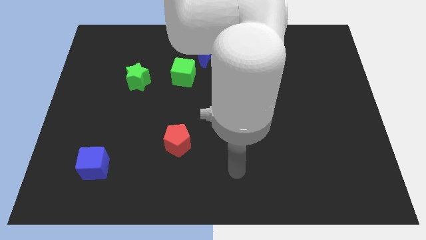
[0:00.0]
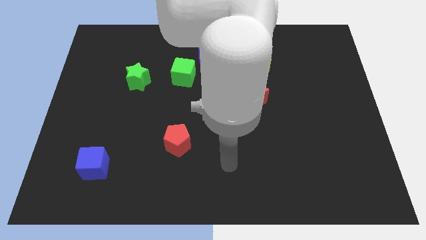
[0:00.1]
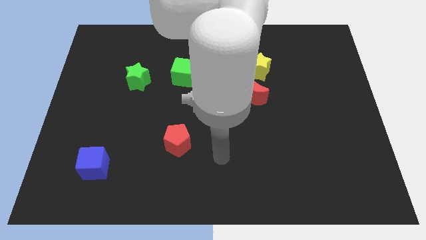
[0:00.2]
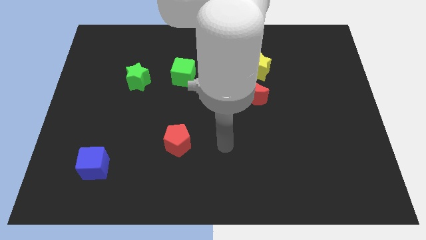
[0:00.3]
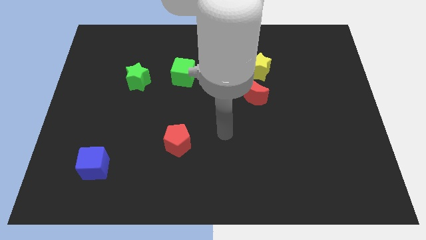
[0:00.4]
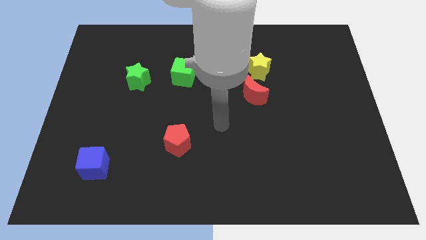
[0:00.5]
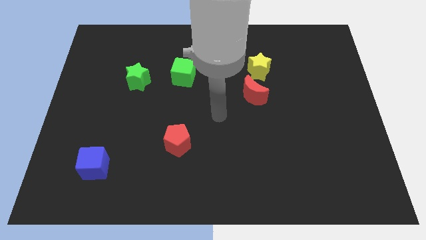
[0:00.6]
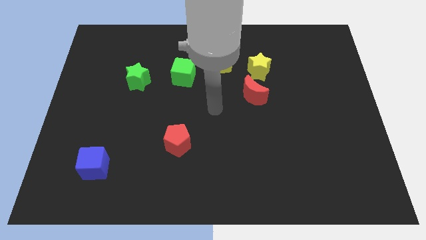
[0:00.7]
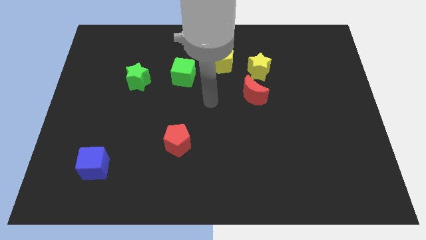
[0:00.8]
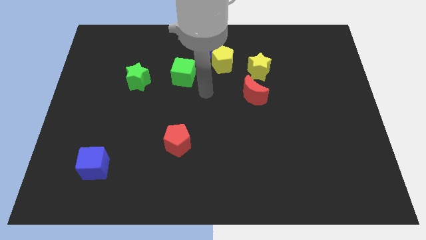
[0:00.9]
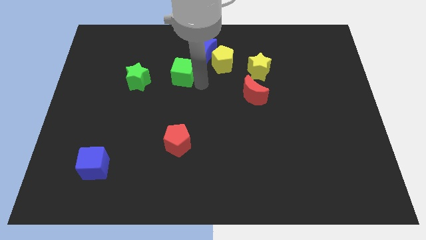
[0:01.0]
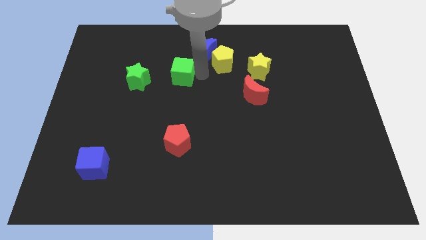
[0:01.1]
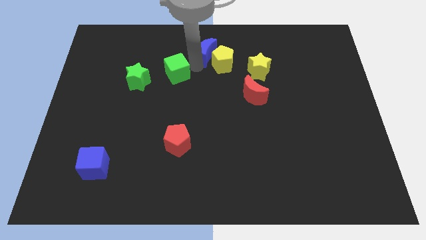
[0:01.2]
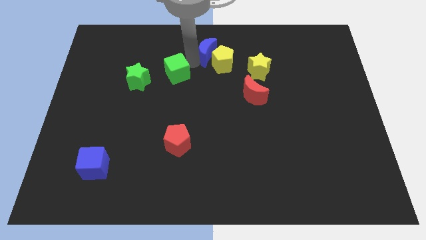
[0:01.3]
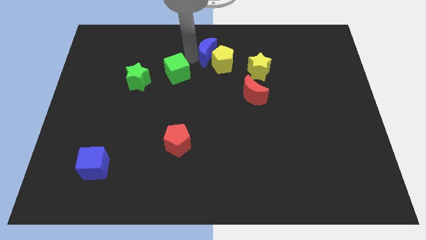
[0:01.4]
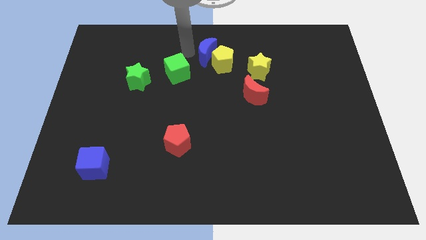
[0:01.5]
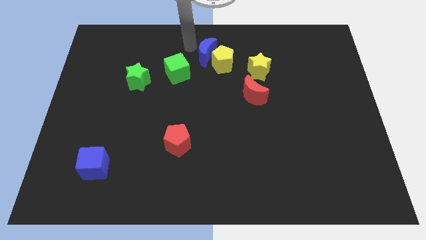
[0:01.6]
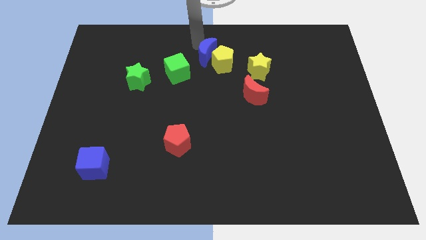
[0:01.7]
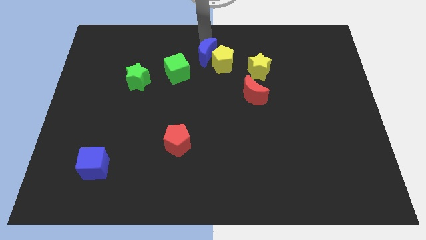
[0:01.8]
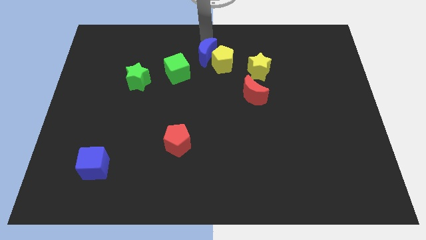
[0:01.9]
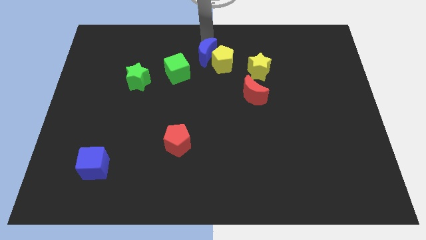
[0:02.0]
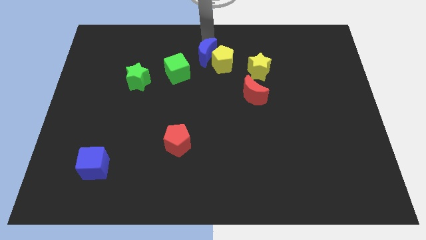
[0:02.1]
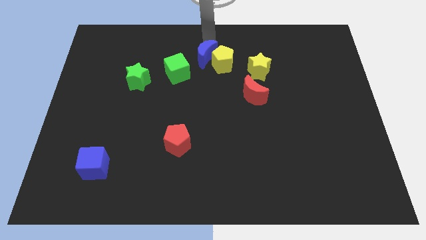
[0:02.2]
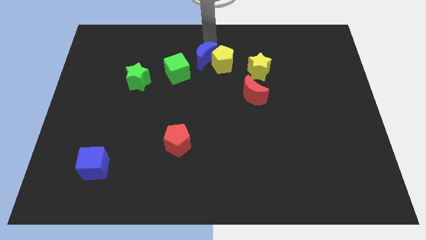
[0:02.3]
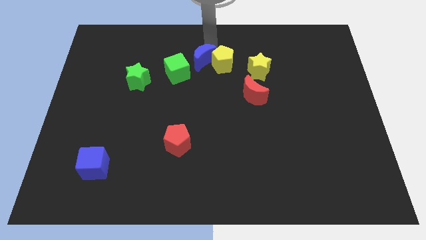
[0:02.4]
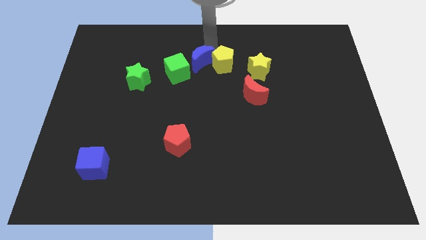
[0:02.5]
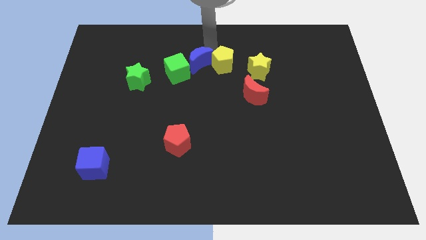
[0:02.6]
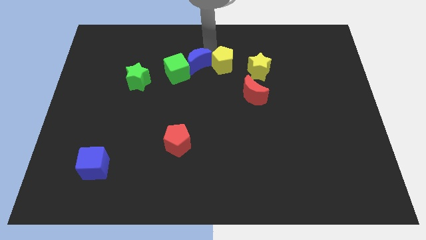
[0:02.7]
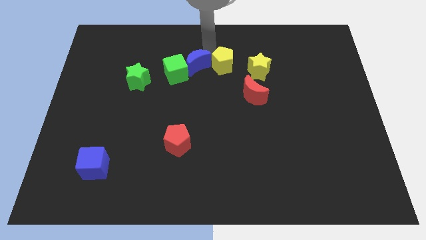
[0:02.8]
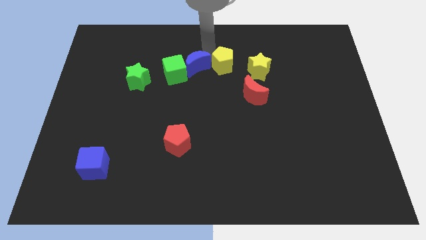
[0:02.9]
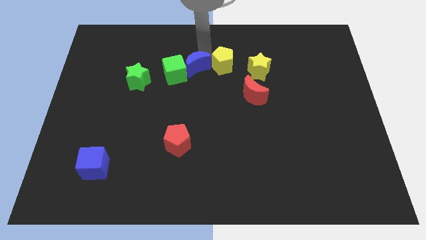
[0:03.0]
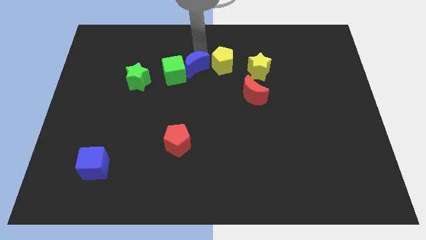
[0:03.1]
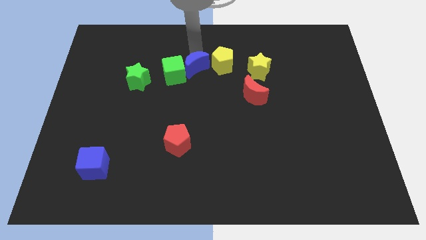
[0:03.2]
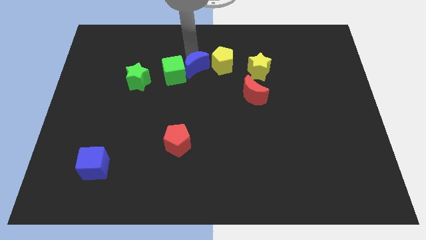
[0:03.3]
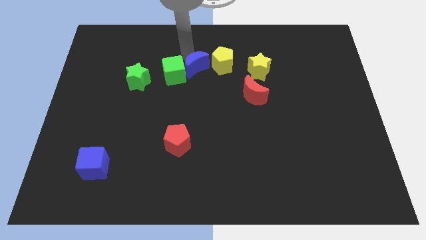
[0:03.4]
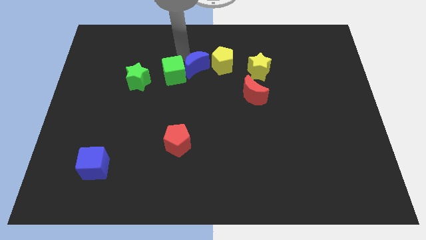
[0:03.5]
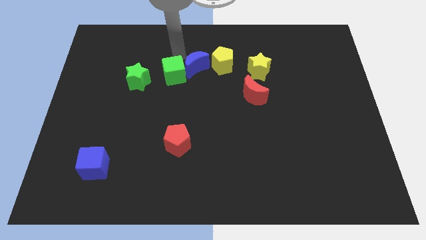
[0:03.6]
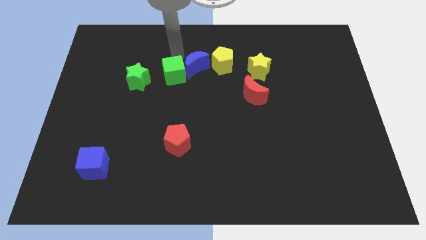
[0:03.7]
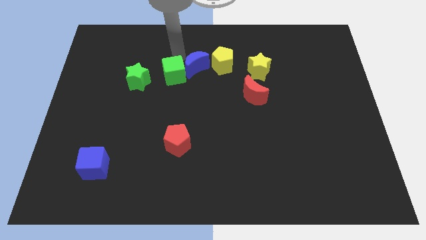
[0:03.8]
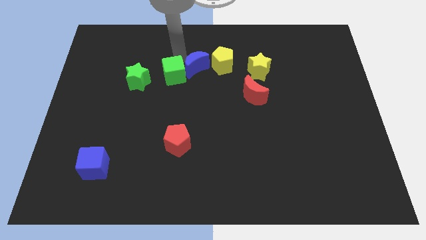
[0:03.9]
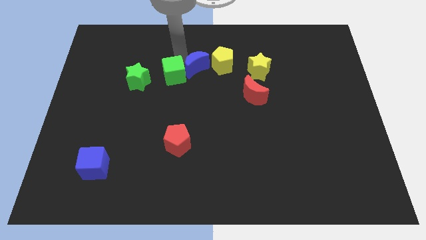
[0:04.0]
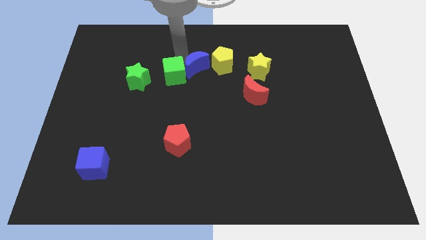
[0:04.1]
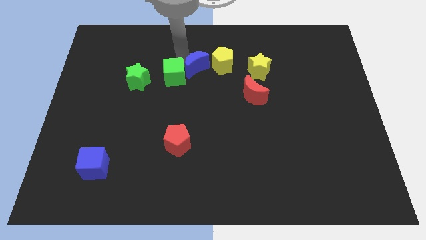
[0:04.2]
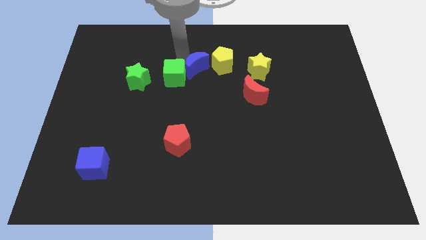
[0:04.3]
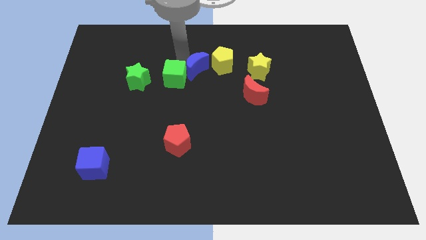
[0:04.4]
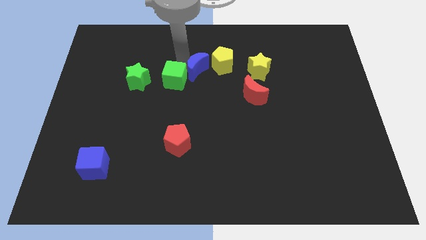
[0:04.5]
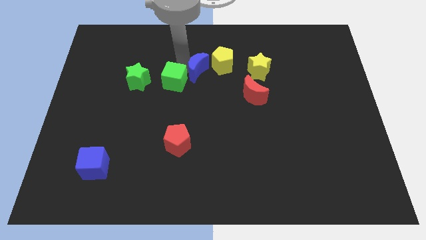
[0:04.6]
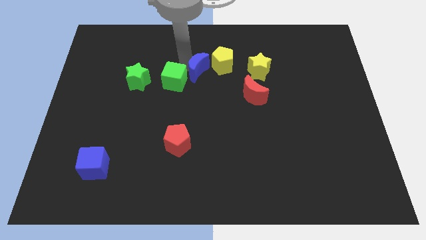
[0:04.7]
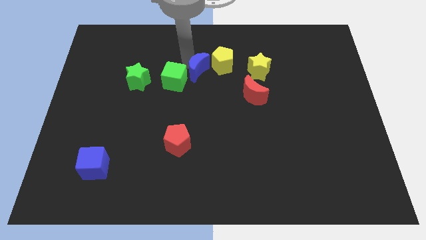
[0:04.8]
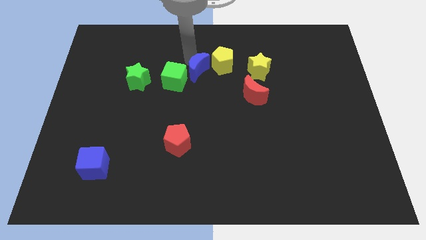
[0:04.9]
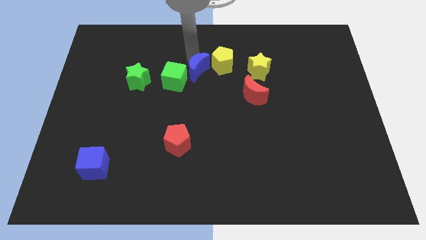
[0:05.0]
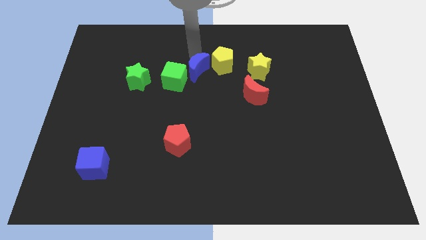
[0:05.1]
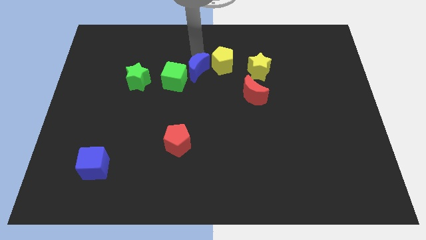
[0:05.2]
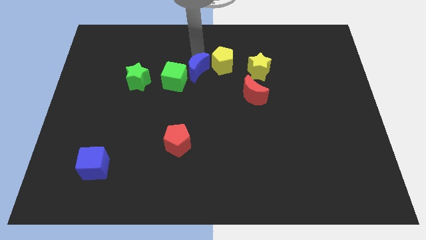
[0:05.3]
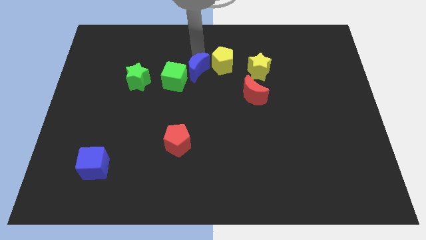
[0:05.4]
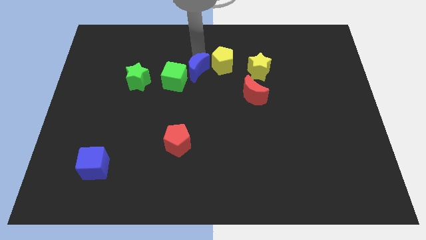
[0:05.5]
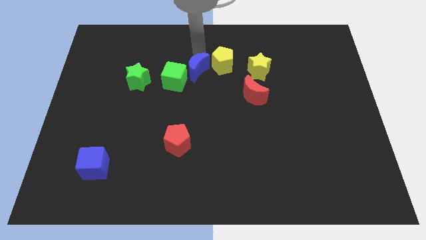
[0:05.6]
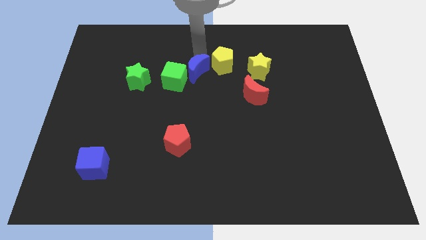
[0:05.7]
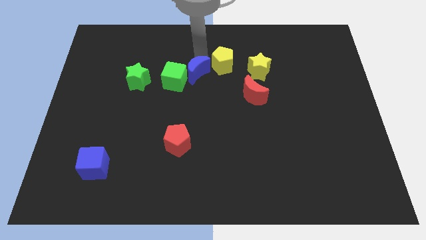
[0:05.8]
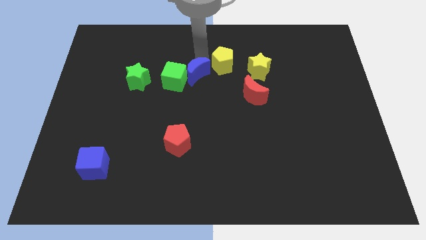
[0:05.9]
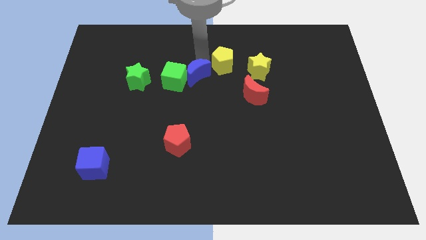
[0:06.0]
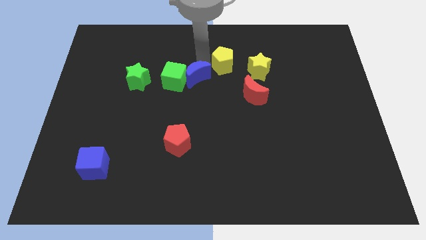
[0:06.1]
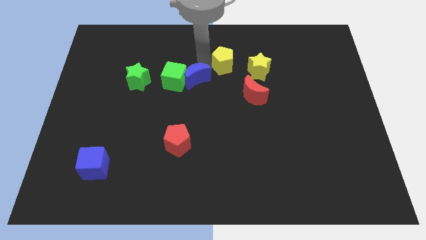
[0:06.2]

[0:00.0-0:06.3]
slightly push the blue moon downwards and left

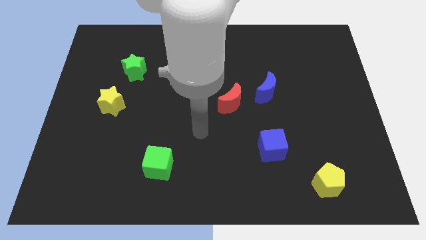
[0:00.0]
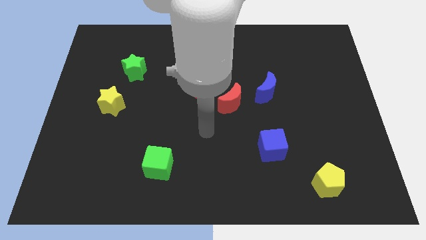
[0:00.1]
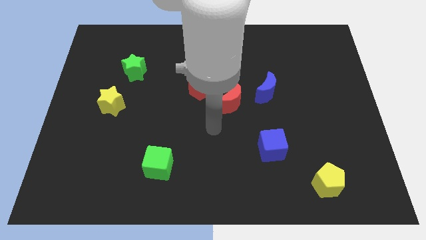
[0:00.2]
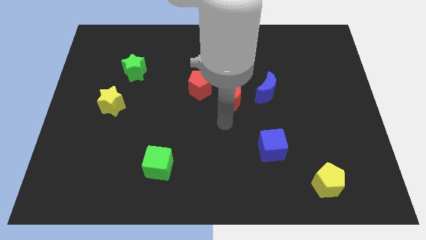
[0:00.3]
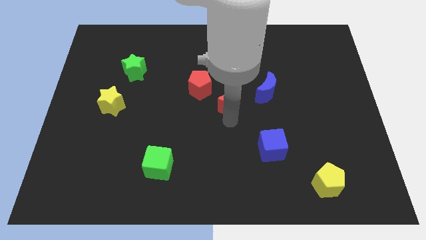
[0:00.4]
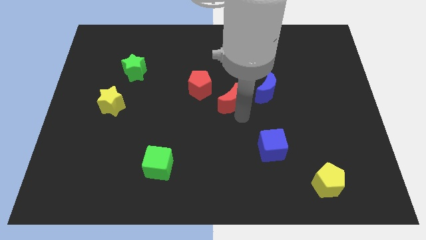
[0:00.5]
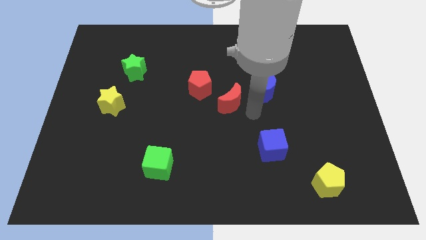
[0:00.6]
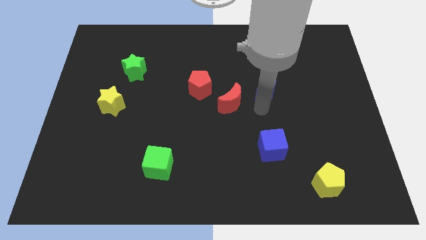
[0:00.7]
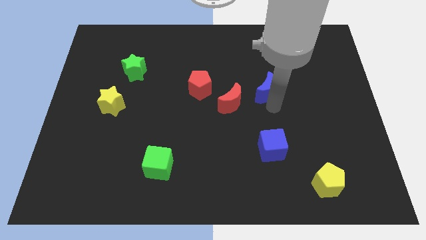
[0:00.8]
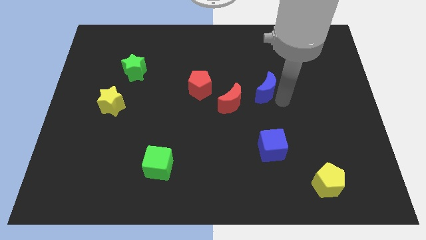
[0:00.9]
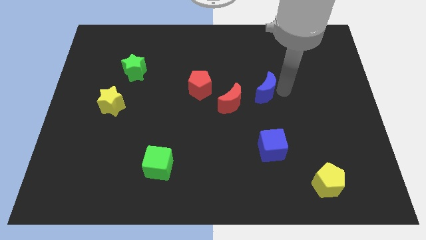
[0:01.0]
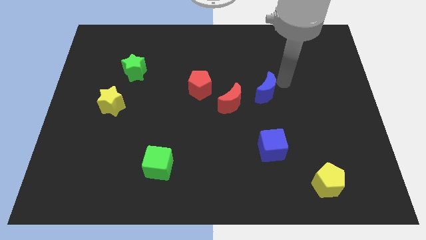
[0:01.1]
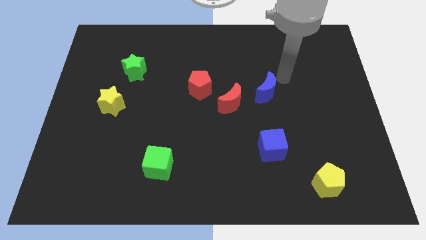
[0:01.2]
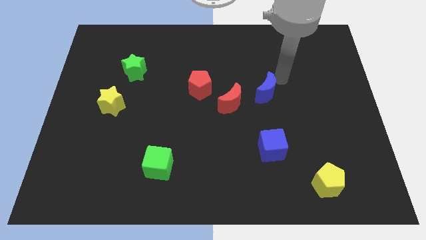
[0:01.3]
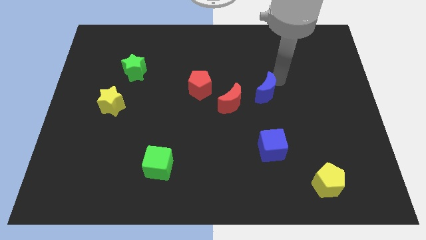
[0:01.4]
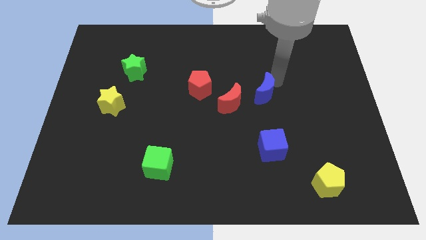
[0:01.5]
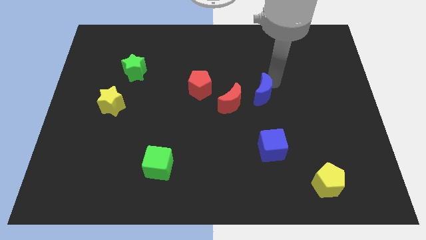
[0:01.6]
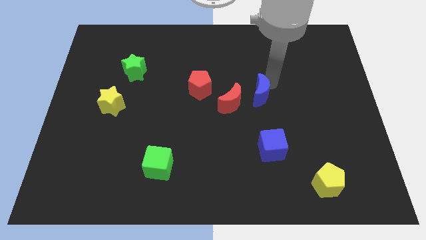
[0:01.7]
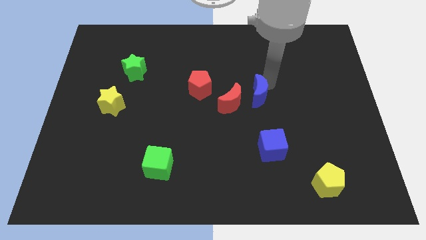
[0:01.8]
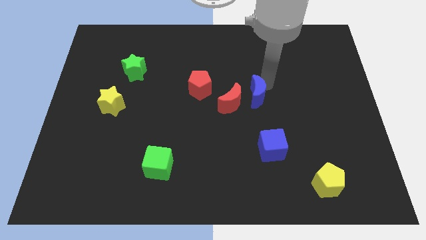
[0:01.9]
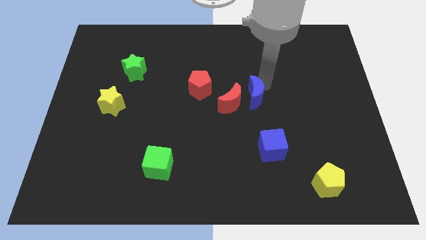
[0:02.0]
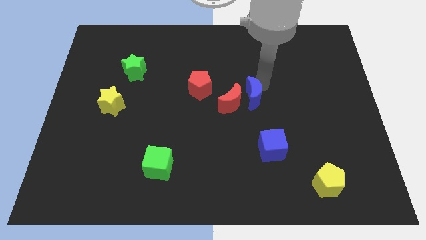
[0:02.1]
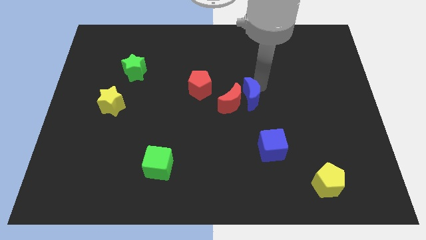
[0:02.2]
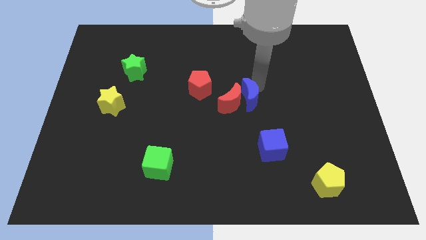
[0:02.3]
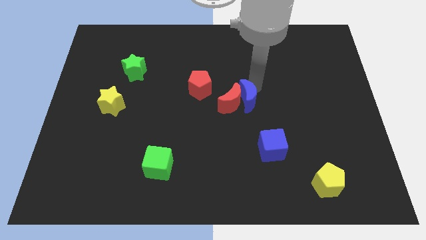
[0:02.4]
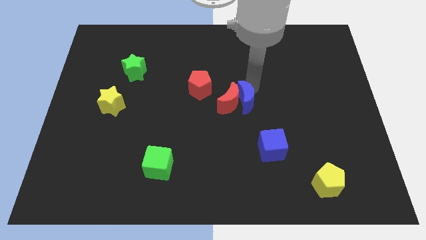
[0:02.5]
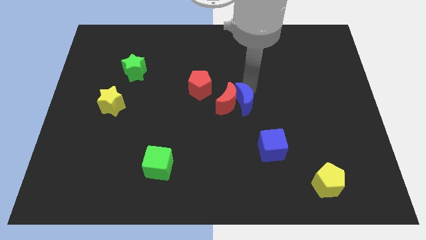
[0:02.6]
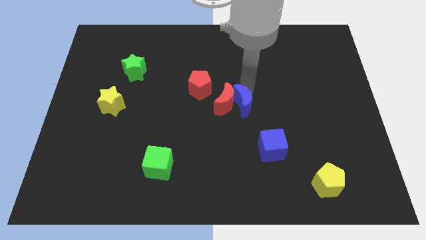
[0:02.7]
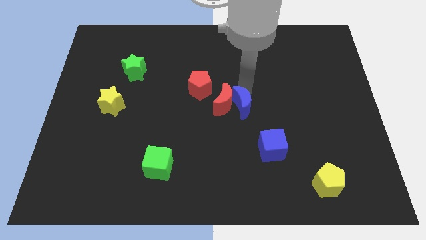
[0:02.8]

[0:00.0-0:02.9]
push the blue moon slightly downwards and then to the left
